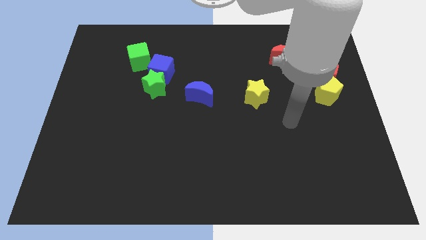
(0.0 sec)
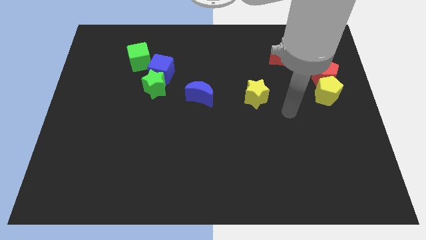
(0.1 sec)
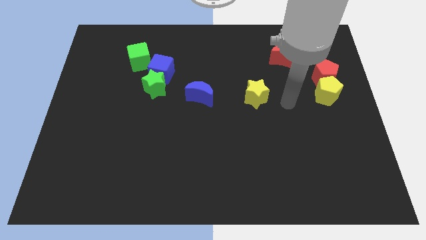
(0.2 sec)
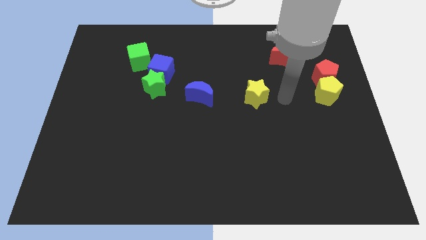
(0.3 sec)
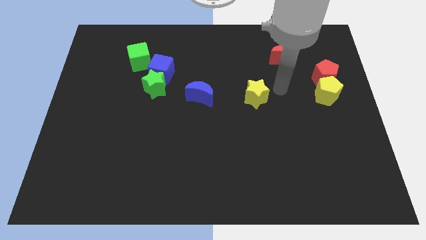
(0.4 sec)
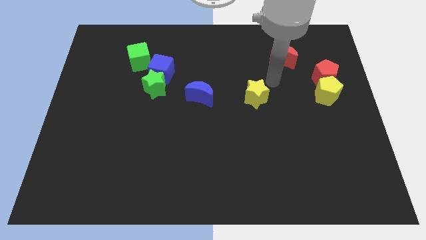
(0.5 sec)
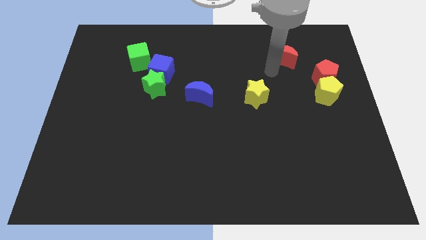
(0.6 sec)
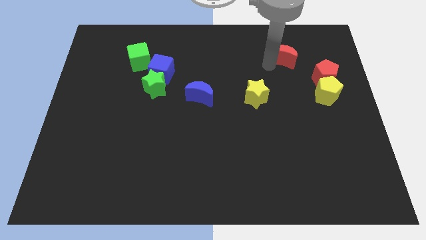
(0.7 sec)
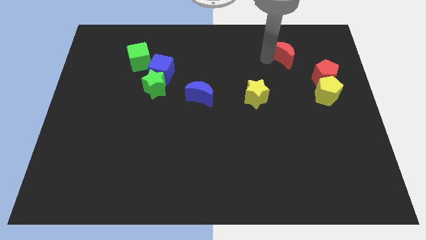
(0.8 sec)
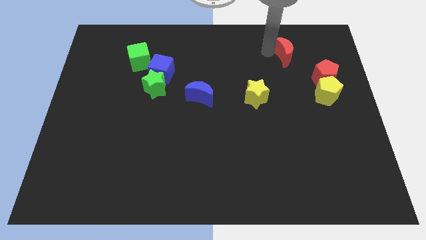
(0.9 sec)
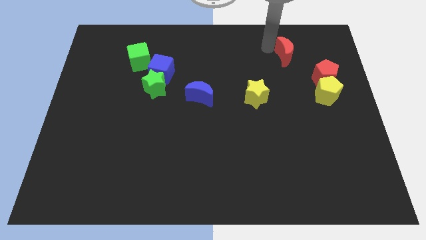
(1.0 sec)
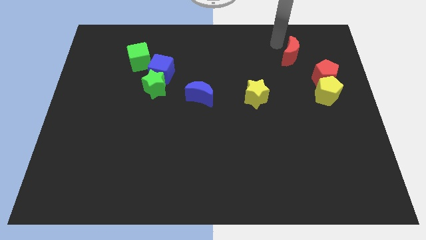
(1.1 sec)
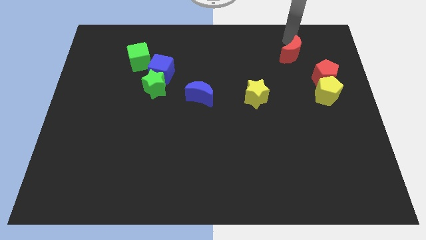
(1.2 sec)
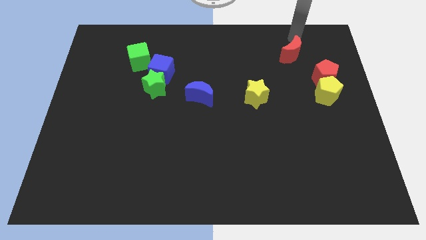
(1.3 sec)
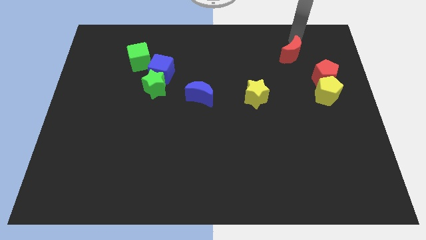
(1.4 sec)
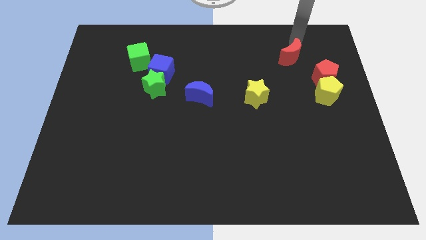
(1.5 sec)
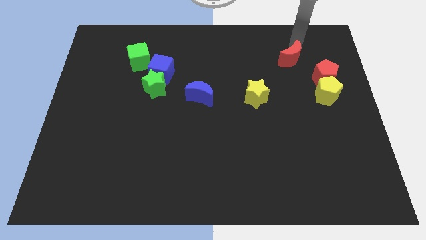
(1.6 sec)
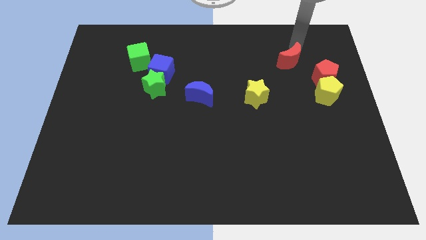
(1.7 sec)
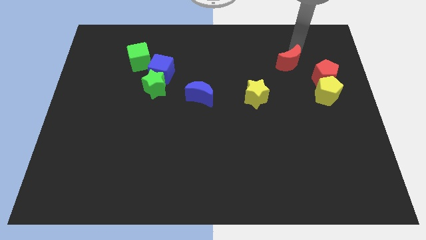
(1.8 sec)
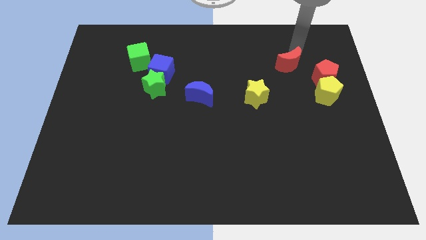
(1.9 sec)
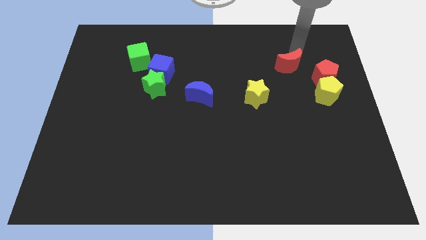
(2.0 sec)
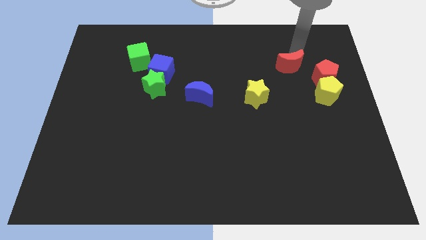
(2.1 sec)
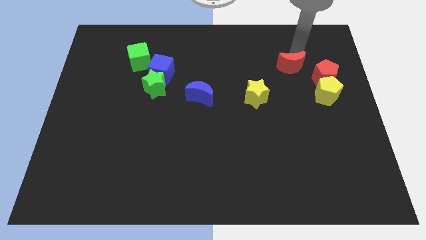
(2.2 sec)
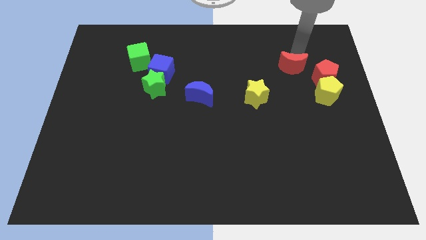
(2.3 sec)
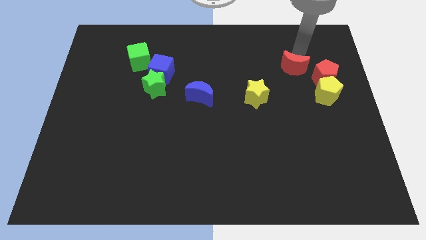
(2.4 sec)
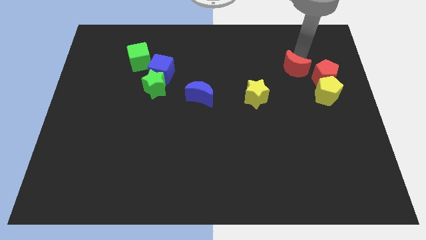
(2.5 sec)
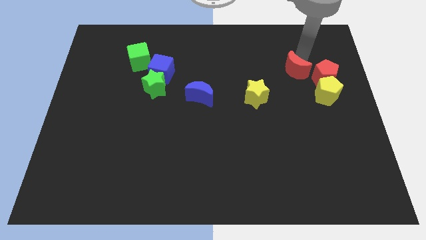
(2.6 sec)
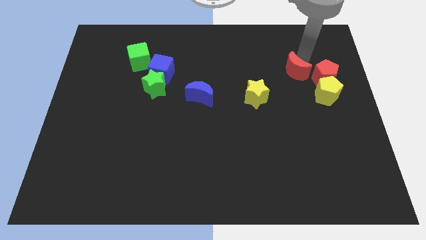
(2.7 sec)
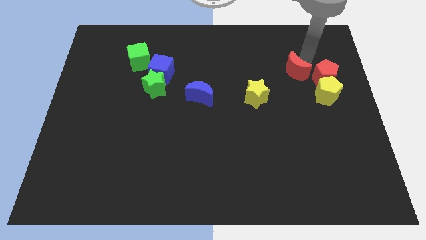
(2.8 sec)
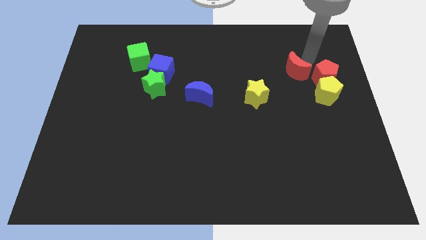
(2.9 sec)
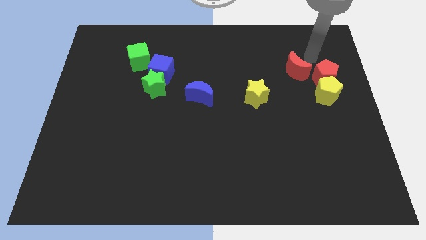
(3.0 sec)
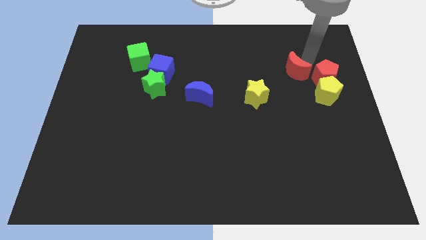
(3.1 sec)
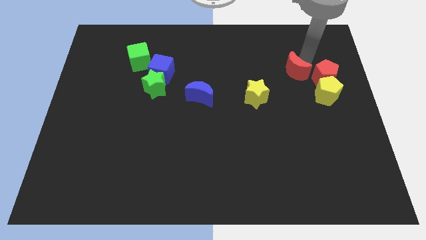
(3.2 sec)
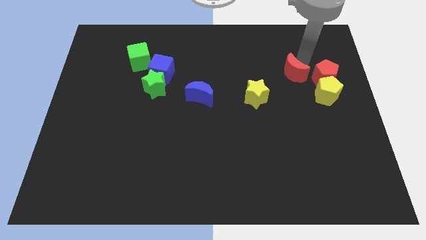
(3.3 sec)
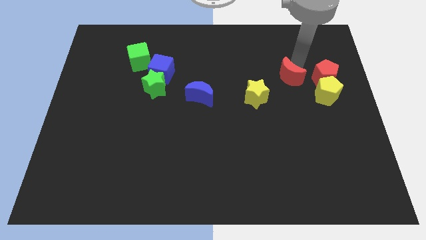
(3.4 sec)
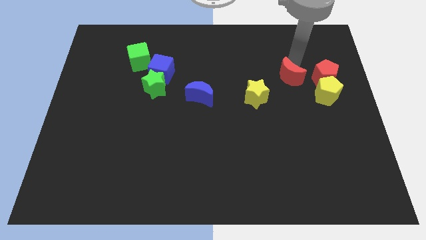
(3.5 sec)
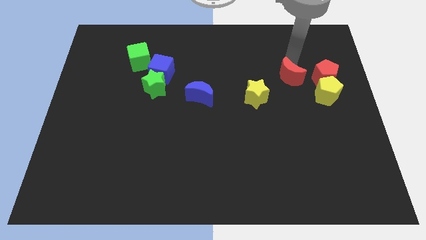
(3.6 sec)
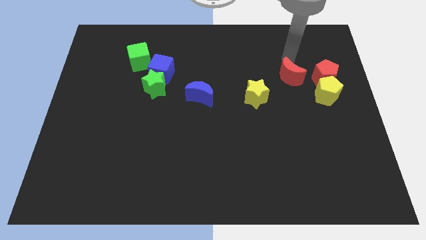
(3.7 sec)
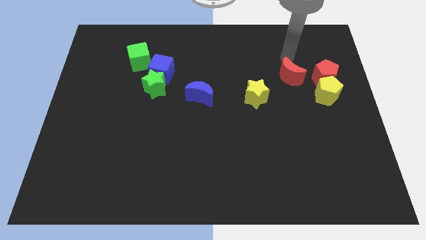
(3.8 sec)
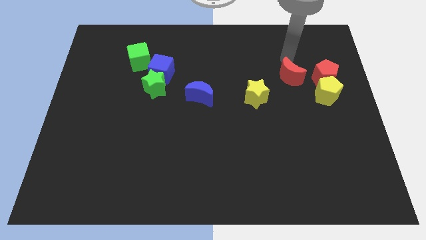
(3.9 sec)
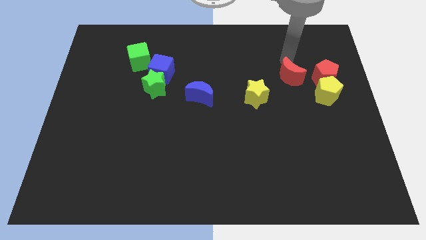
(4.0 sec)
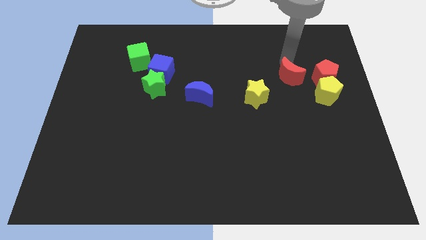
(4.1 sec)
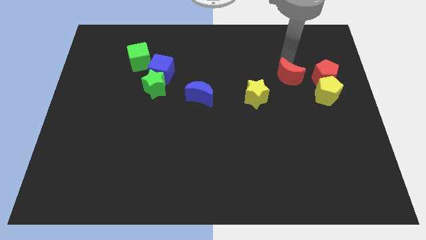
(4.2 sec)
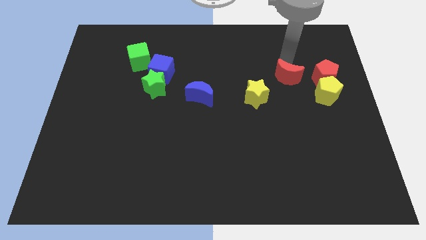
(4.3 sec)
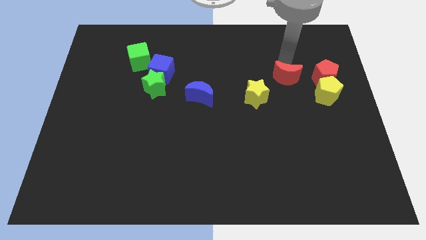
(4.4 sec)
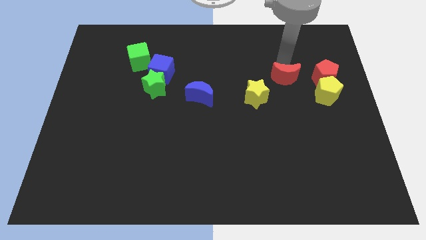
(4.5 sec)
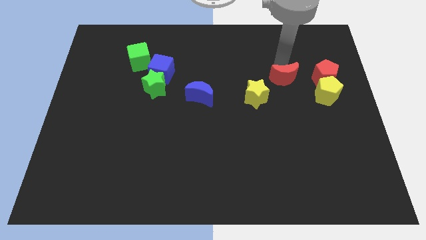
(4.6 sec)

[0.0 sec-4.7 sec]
push the red moon a little bit down

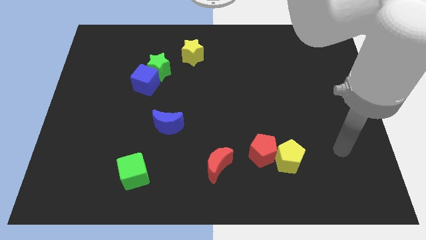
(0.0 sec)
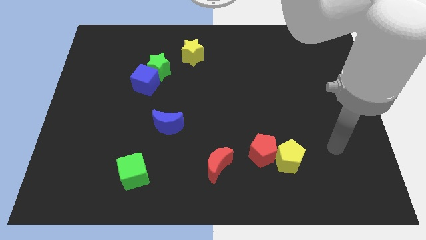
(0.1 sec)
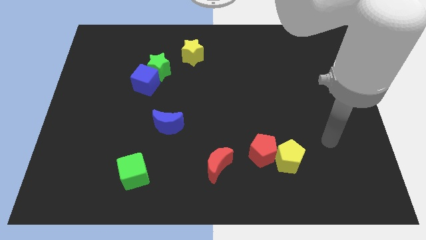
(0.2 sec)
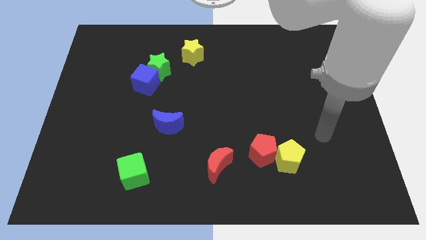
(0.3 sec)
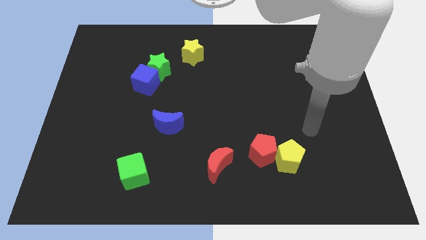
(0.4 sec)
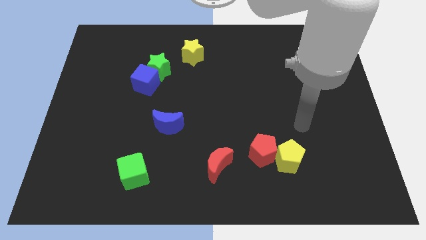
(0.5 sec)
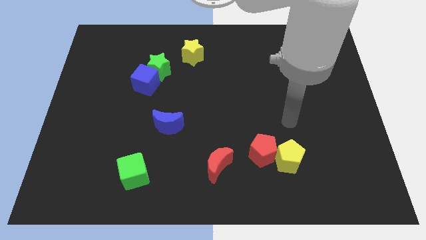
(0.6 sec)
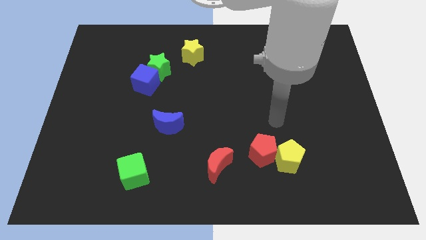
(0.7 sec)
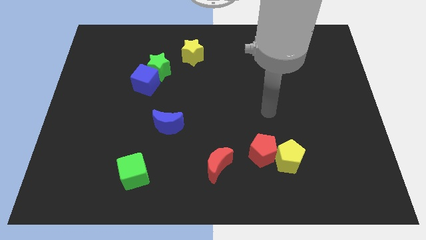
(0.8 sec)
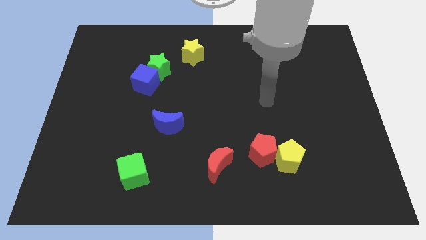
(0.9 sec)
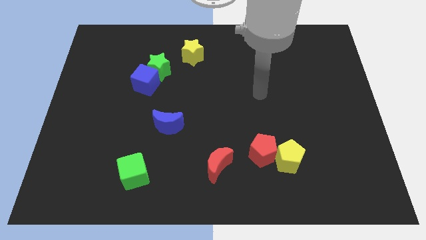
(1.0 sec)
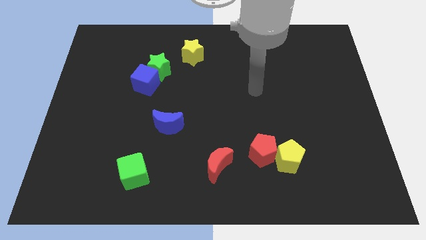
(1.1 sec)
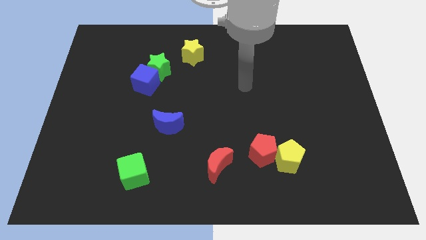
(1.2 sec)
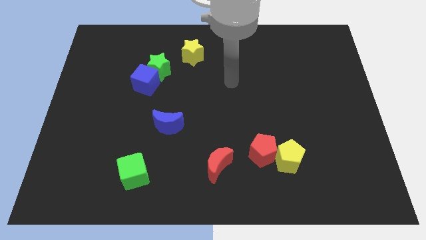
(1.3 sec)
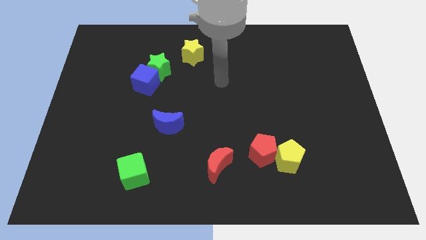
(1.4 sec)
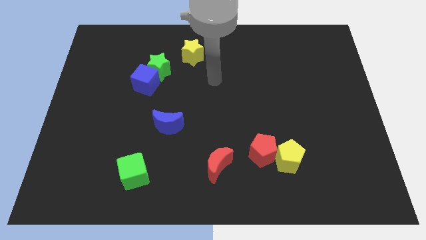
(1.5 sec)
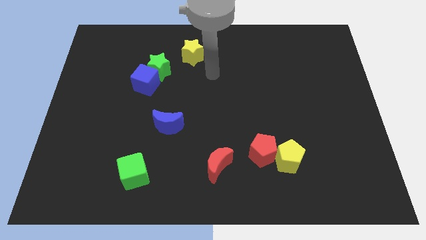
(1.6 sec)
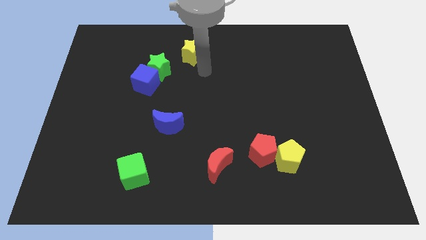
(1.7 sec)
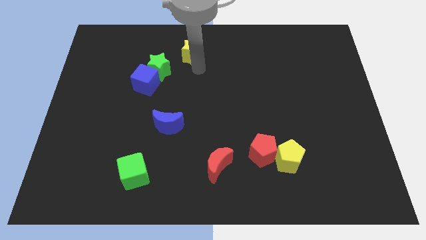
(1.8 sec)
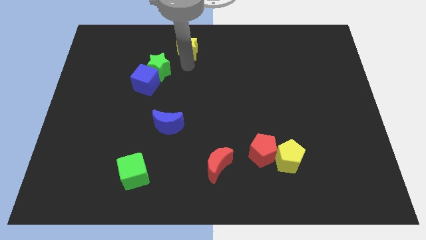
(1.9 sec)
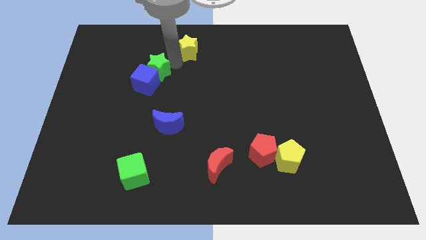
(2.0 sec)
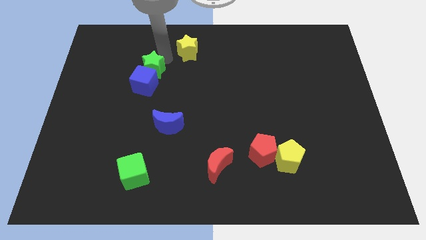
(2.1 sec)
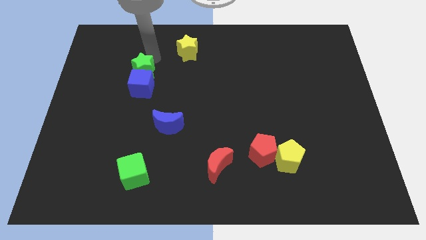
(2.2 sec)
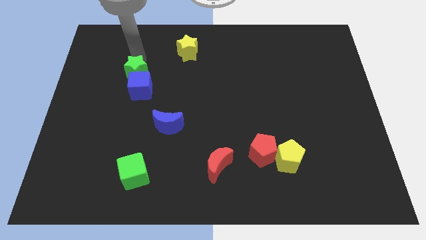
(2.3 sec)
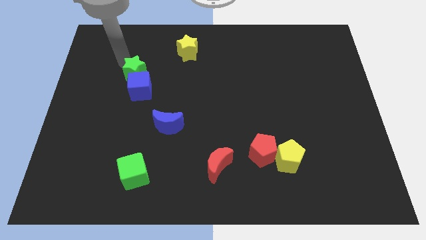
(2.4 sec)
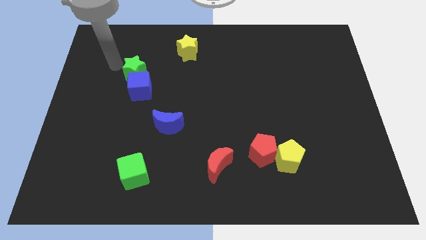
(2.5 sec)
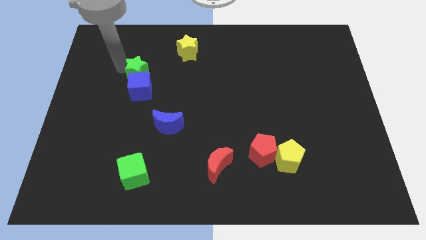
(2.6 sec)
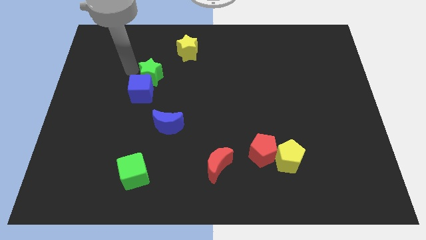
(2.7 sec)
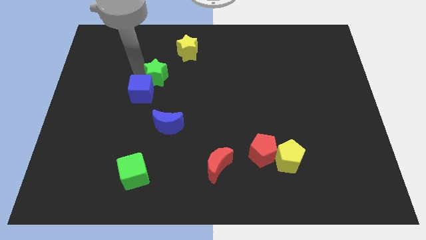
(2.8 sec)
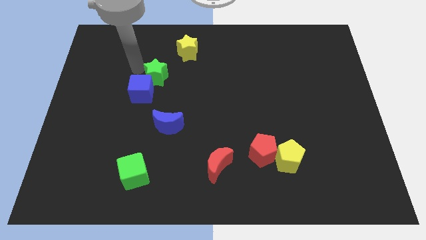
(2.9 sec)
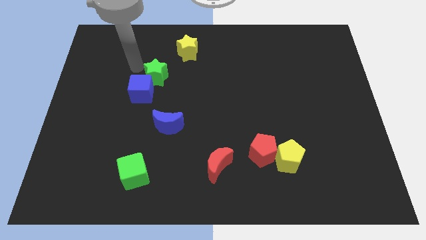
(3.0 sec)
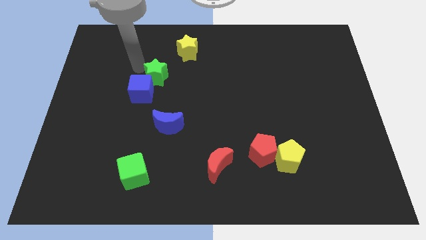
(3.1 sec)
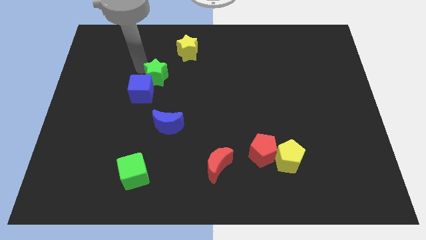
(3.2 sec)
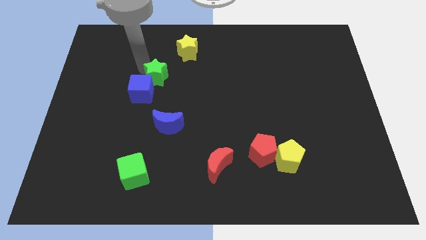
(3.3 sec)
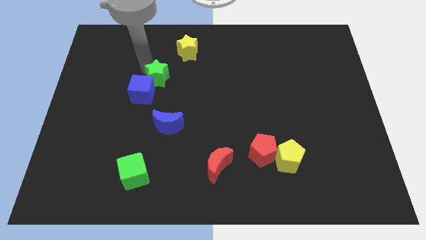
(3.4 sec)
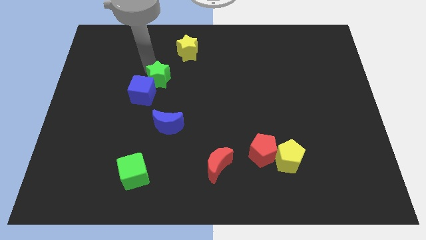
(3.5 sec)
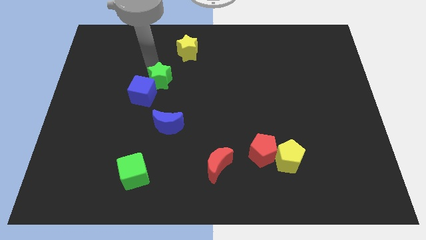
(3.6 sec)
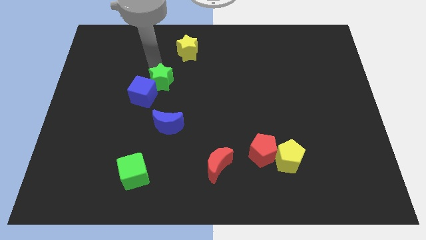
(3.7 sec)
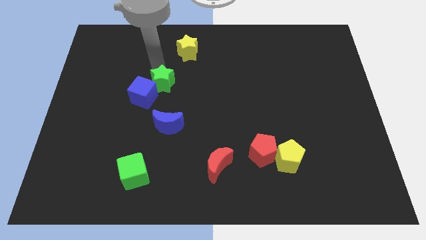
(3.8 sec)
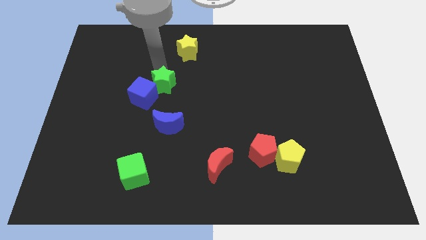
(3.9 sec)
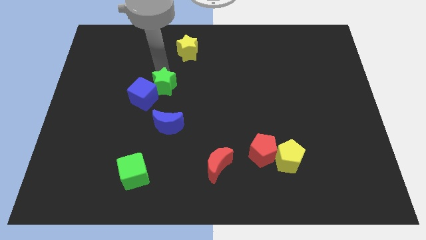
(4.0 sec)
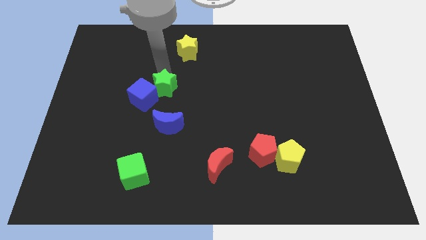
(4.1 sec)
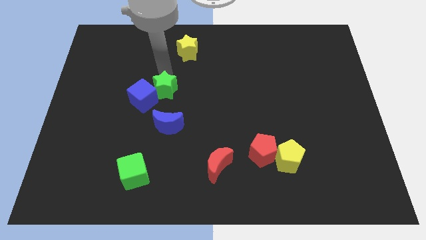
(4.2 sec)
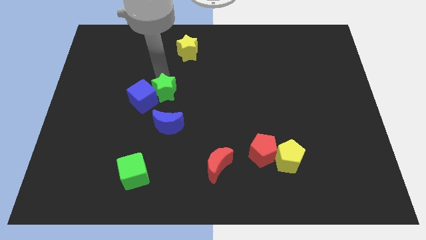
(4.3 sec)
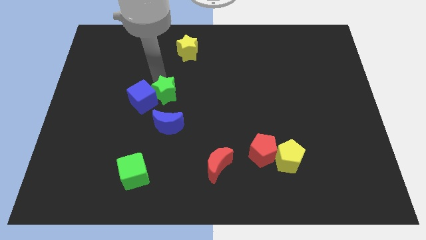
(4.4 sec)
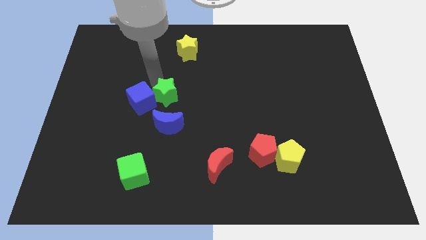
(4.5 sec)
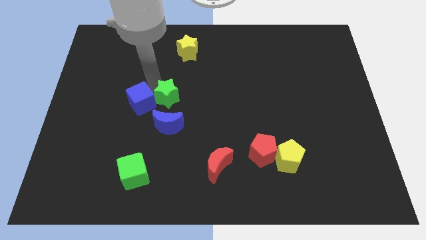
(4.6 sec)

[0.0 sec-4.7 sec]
slide the green star downwards and then to the right somewhat
